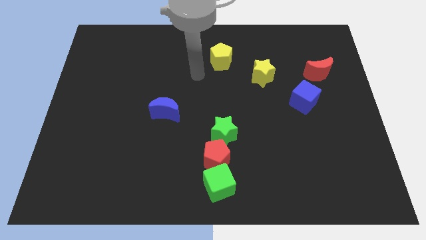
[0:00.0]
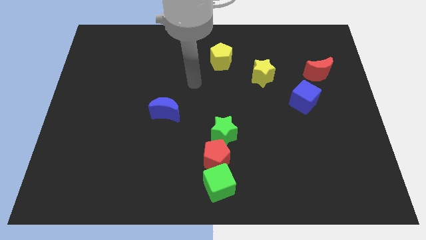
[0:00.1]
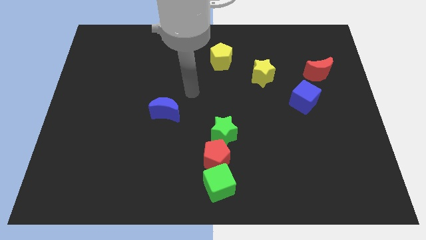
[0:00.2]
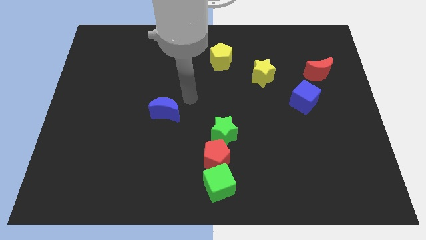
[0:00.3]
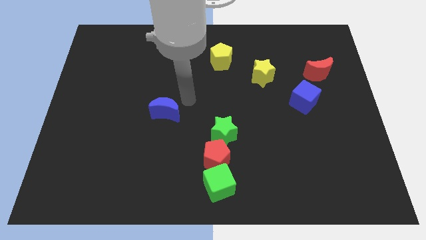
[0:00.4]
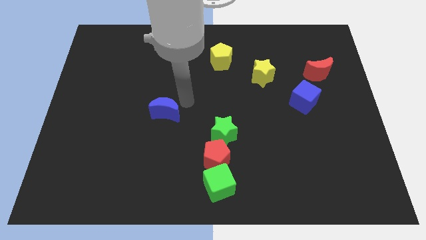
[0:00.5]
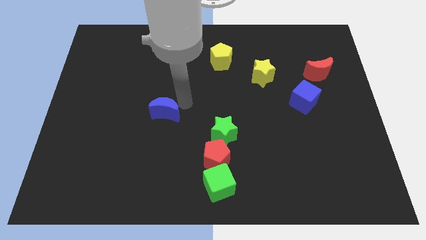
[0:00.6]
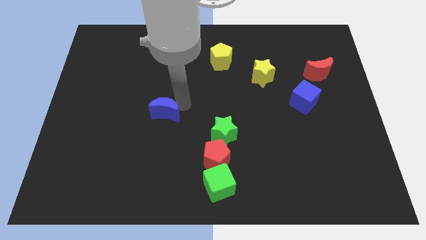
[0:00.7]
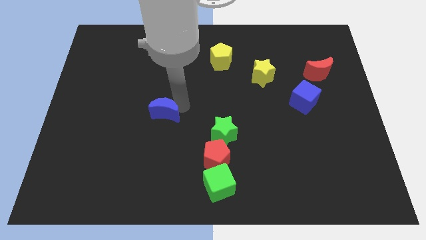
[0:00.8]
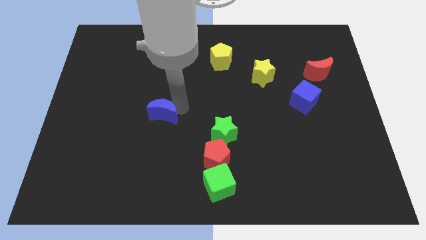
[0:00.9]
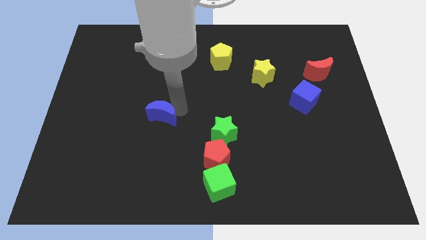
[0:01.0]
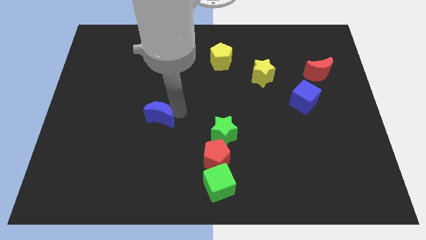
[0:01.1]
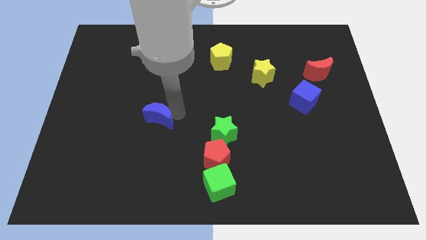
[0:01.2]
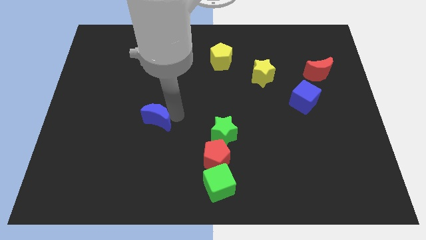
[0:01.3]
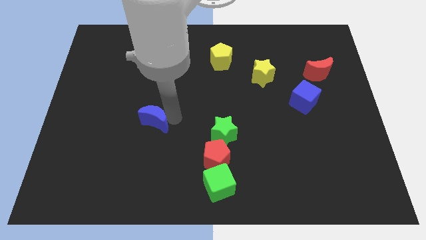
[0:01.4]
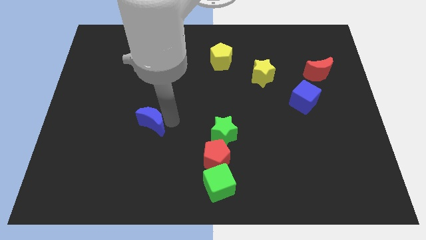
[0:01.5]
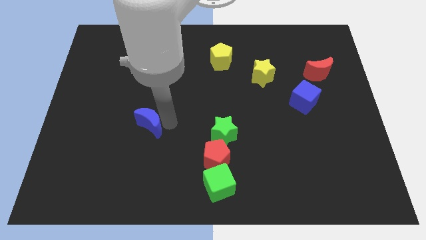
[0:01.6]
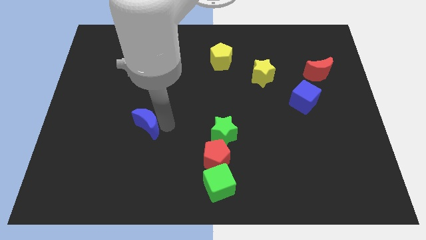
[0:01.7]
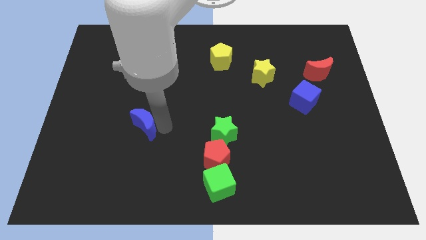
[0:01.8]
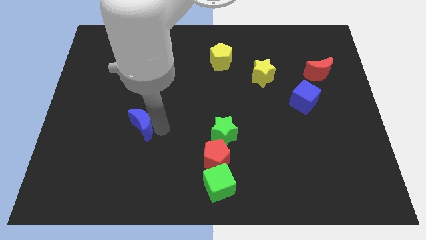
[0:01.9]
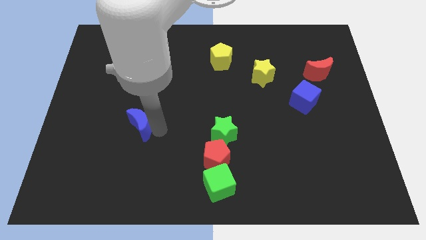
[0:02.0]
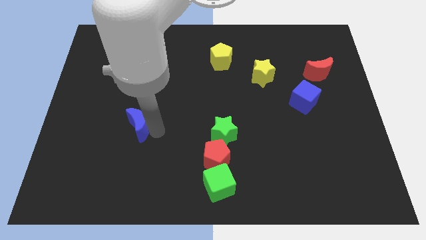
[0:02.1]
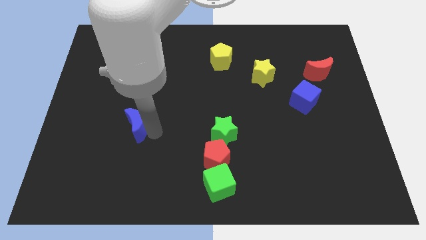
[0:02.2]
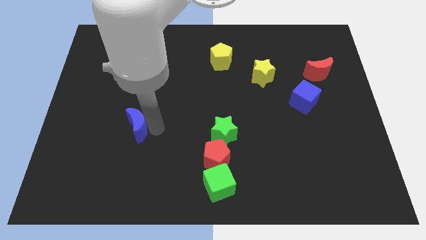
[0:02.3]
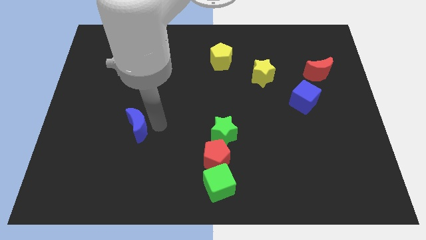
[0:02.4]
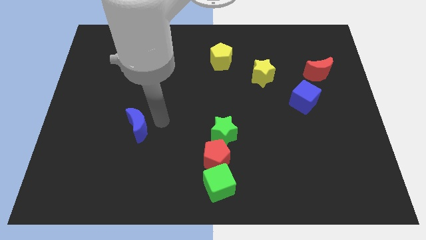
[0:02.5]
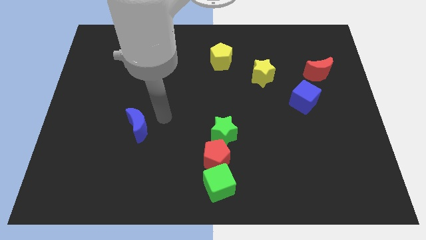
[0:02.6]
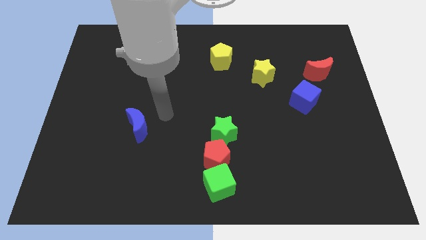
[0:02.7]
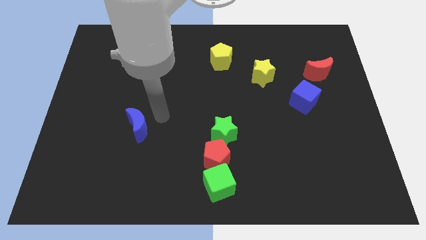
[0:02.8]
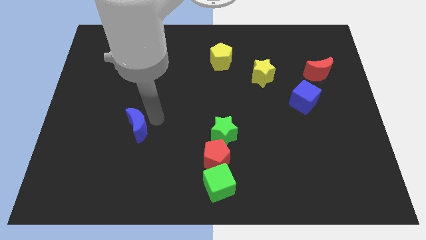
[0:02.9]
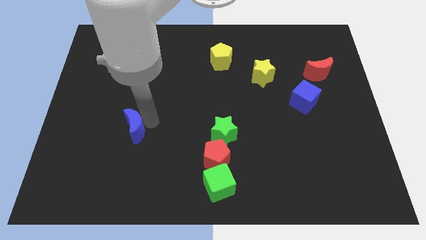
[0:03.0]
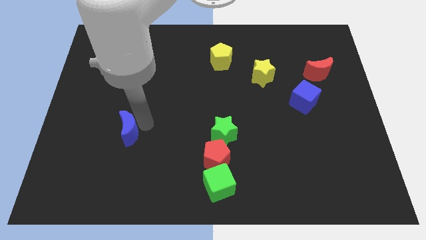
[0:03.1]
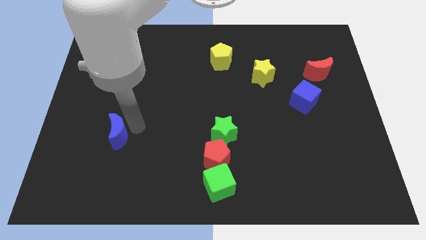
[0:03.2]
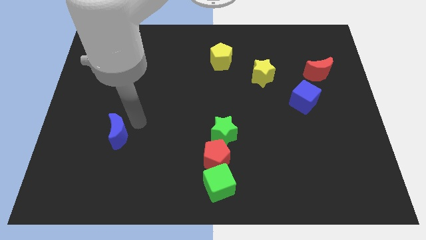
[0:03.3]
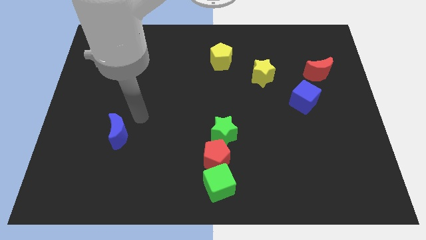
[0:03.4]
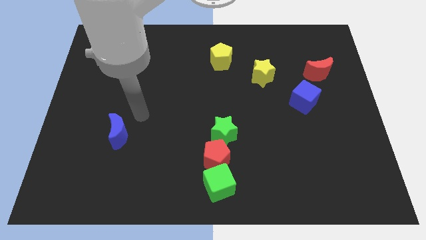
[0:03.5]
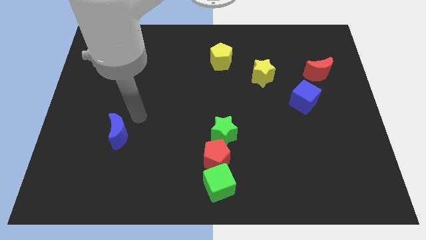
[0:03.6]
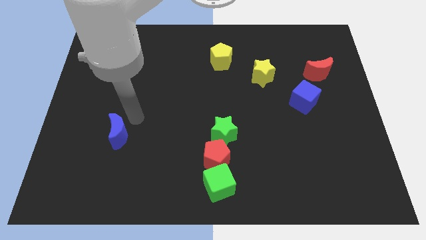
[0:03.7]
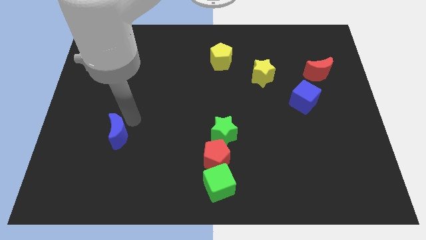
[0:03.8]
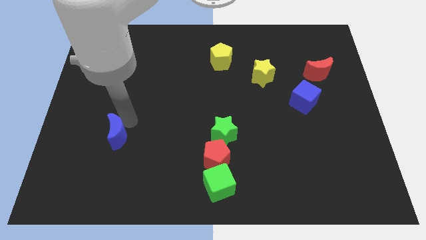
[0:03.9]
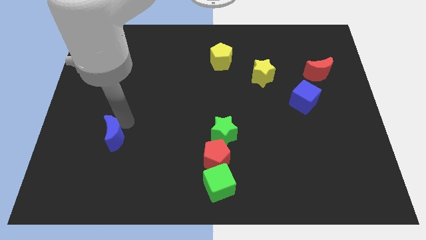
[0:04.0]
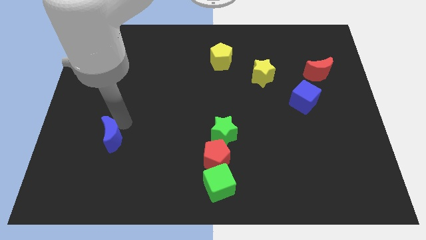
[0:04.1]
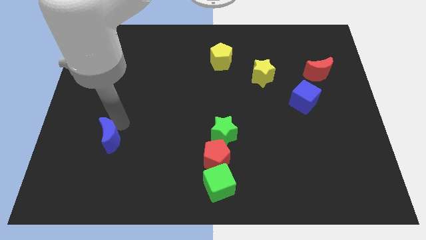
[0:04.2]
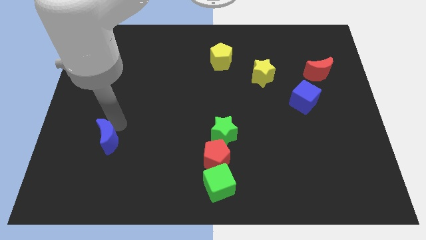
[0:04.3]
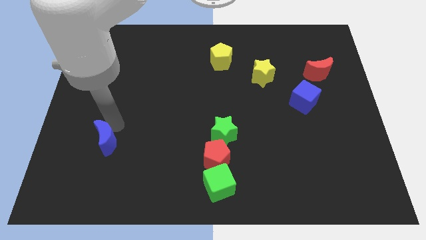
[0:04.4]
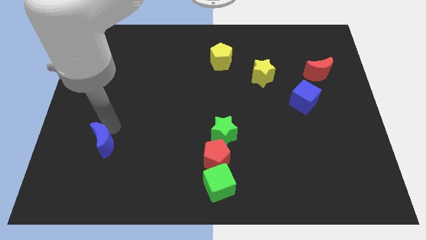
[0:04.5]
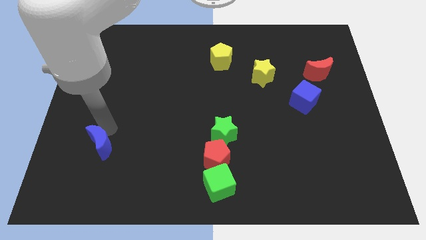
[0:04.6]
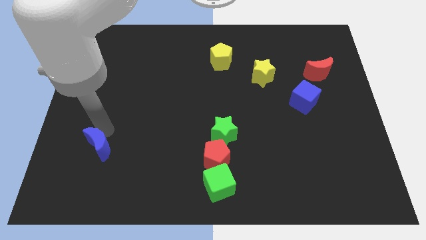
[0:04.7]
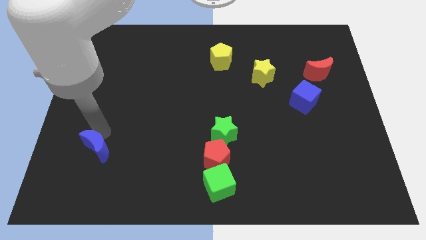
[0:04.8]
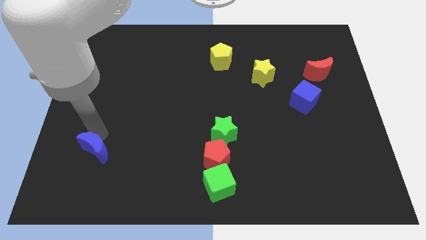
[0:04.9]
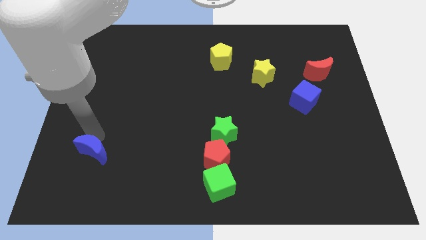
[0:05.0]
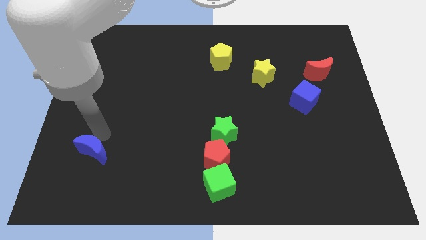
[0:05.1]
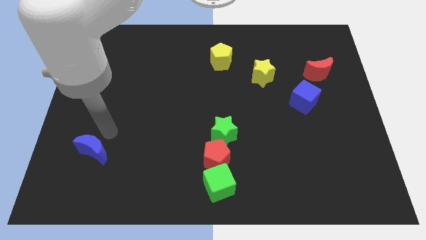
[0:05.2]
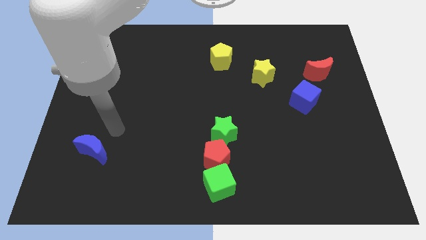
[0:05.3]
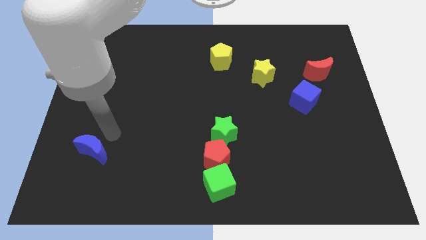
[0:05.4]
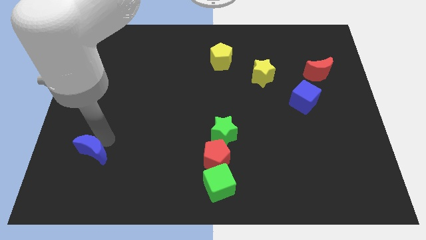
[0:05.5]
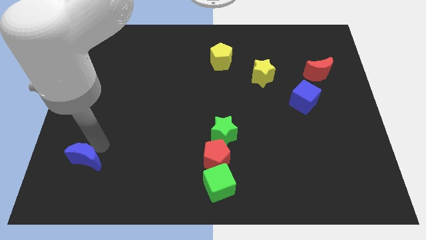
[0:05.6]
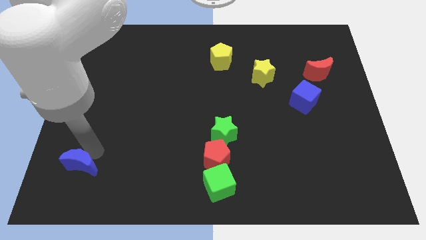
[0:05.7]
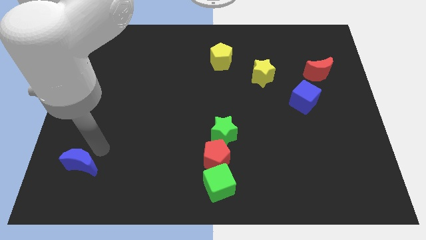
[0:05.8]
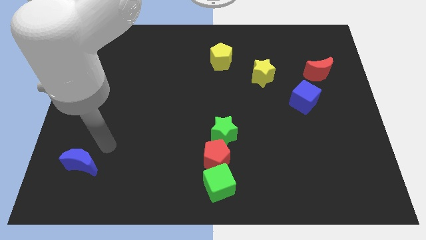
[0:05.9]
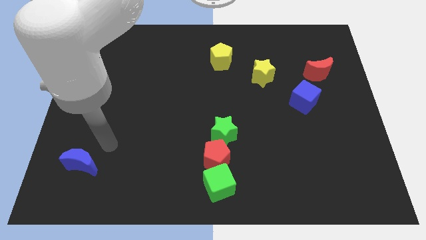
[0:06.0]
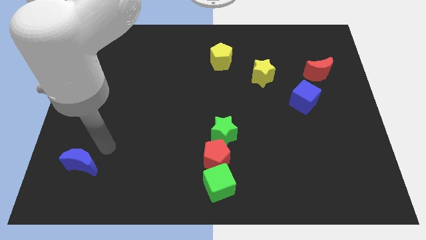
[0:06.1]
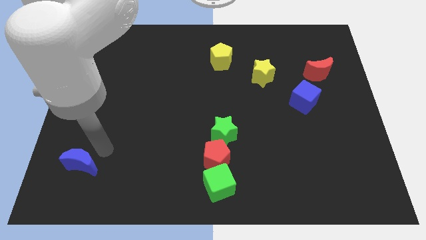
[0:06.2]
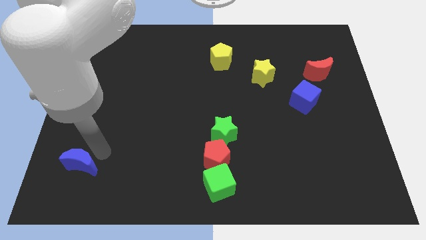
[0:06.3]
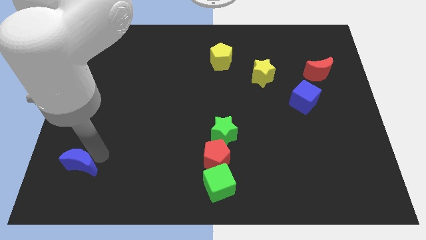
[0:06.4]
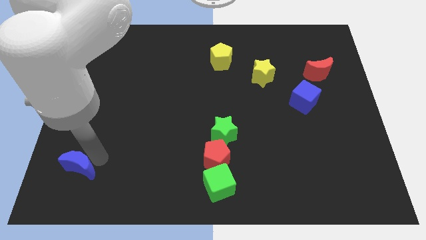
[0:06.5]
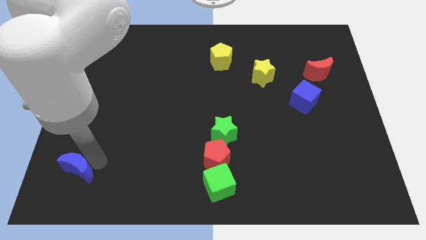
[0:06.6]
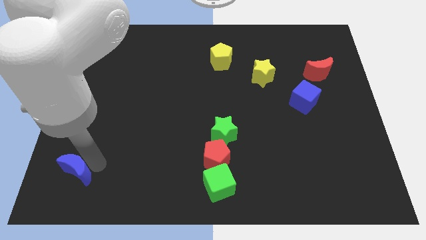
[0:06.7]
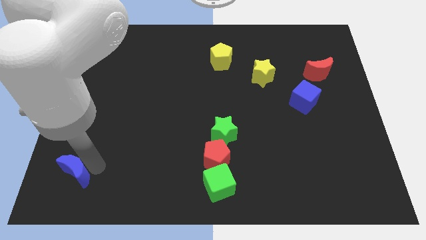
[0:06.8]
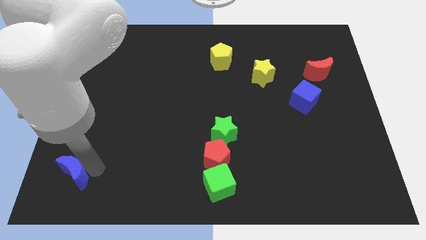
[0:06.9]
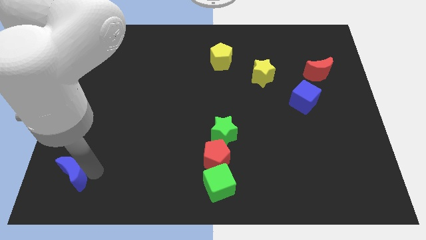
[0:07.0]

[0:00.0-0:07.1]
move the blue moon to the bottom left corner
